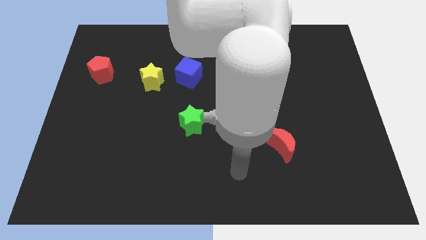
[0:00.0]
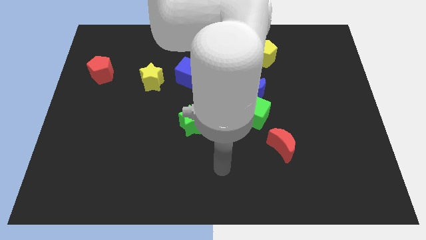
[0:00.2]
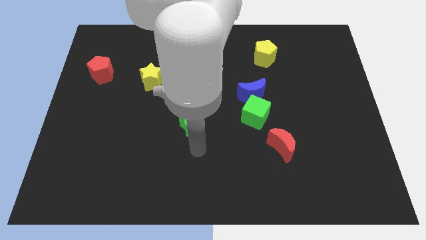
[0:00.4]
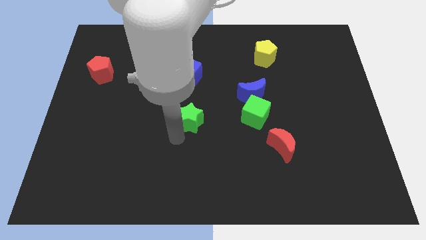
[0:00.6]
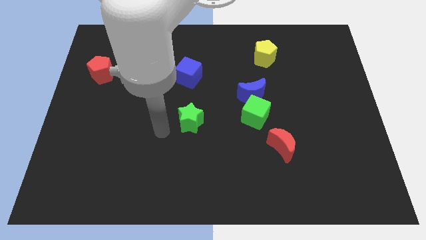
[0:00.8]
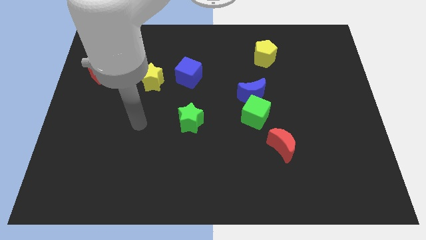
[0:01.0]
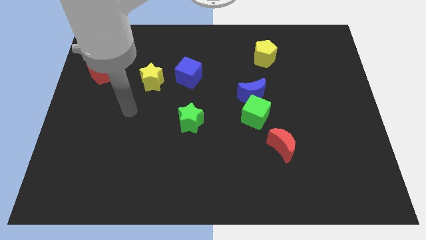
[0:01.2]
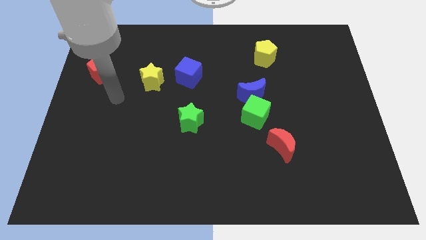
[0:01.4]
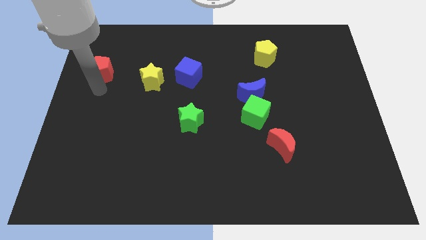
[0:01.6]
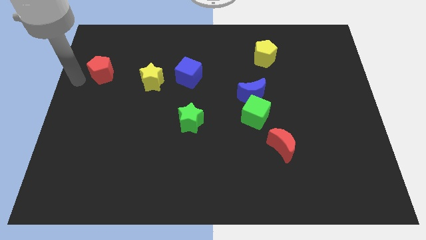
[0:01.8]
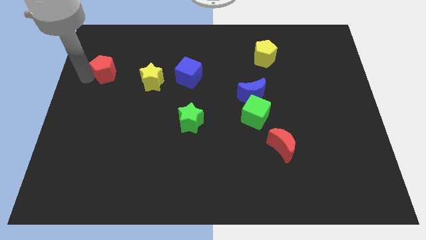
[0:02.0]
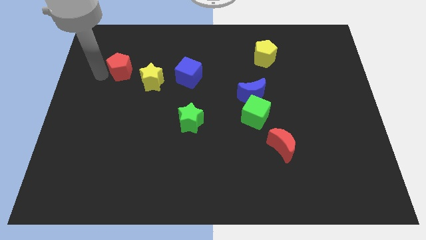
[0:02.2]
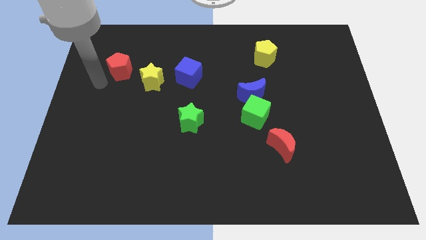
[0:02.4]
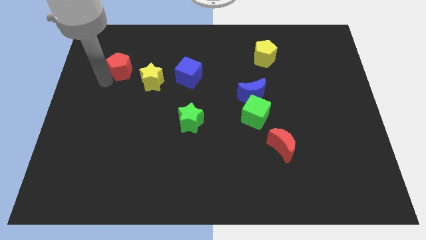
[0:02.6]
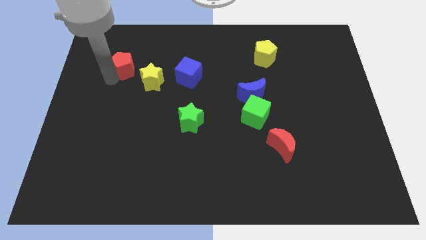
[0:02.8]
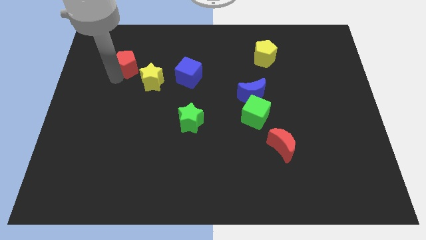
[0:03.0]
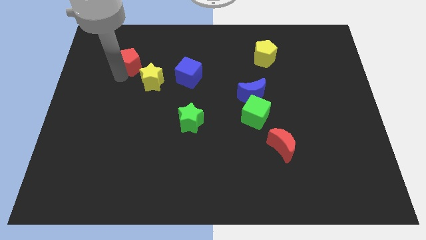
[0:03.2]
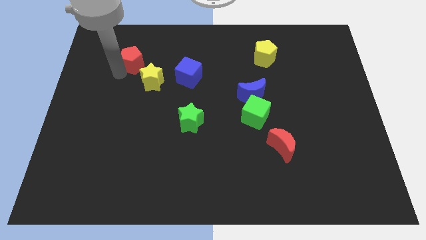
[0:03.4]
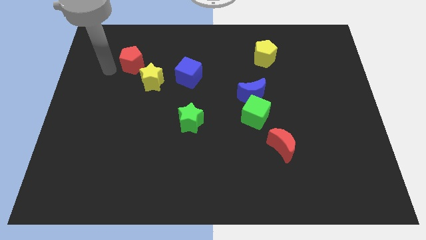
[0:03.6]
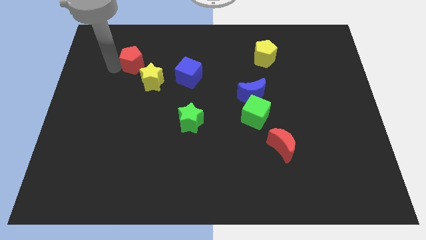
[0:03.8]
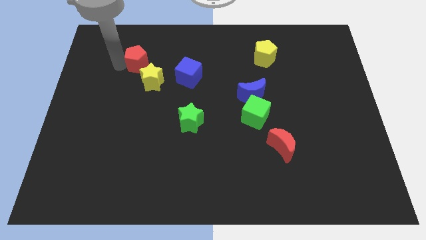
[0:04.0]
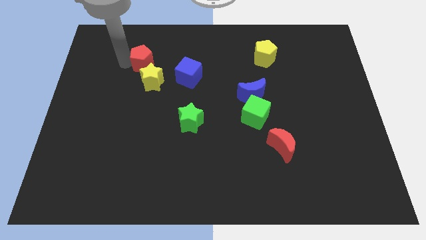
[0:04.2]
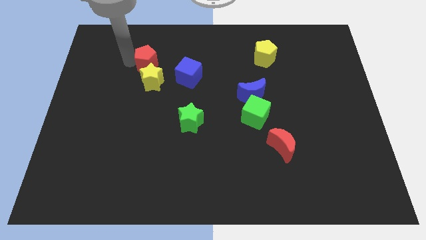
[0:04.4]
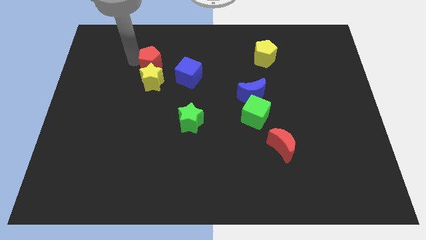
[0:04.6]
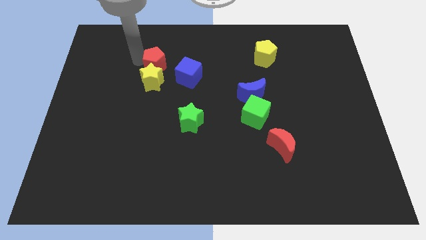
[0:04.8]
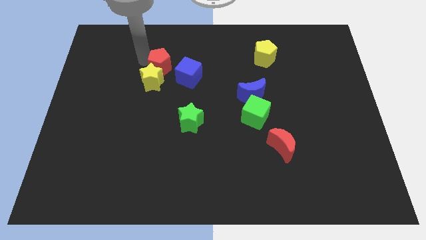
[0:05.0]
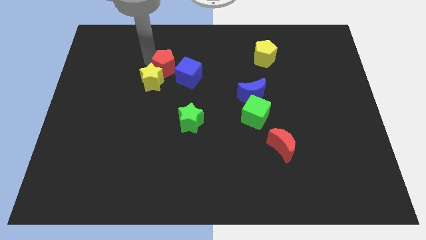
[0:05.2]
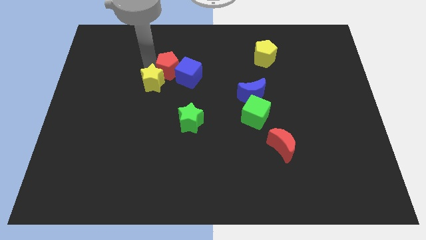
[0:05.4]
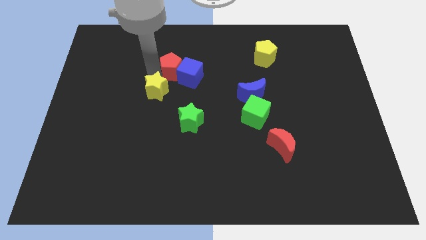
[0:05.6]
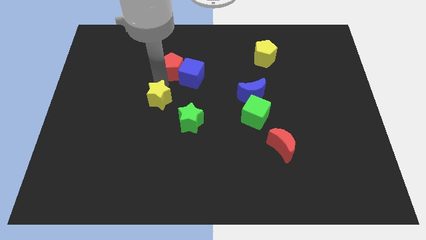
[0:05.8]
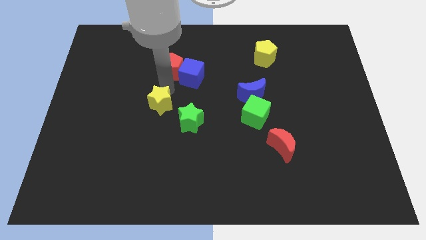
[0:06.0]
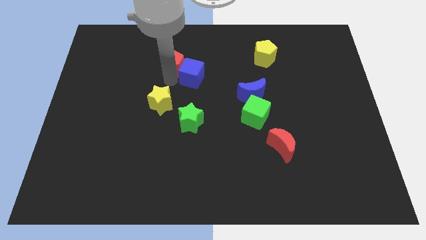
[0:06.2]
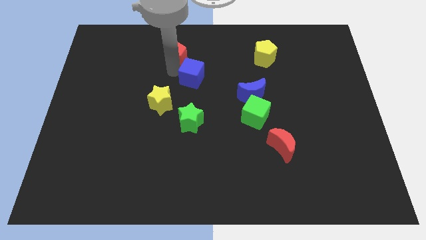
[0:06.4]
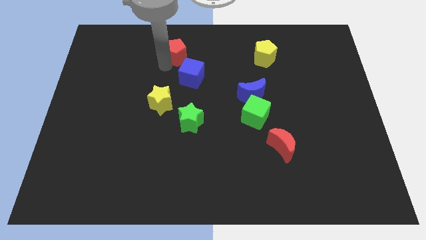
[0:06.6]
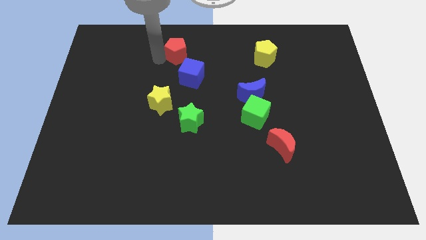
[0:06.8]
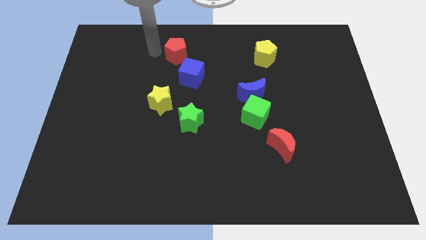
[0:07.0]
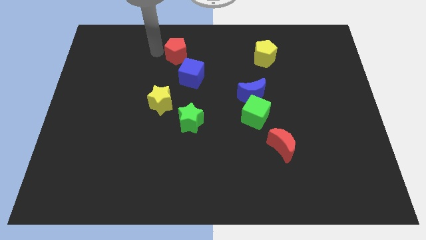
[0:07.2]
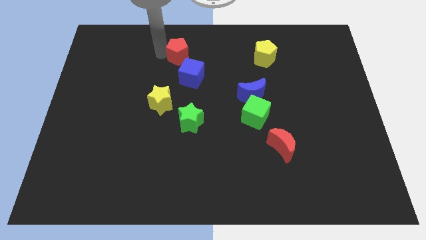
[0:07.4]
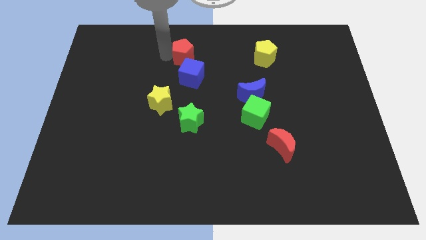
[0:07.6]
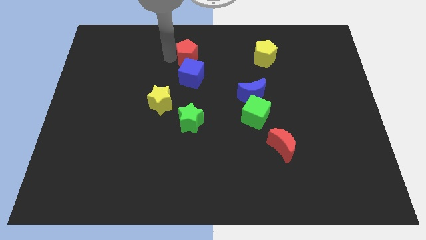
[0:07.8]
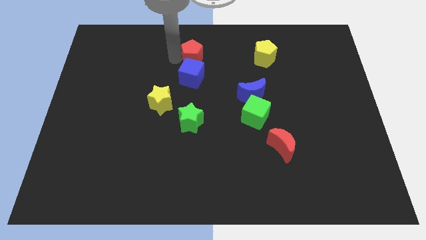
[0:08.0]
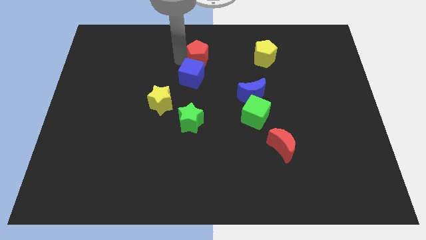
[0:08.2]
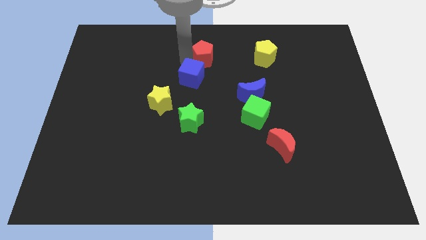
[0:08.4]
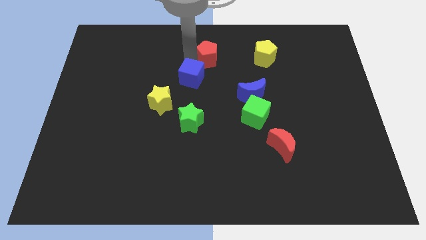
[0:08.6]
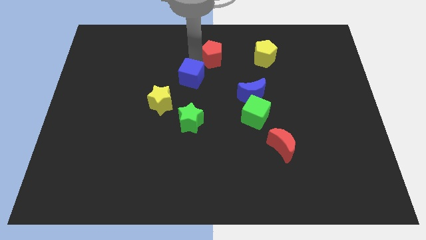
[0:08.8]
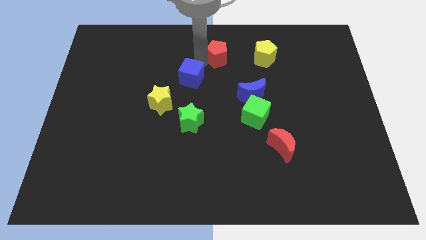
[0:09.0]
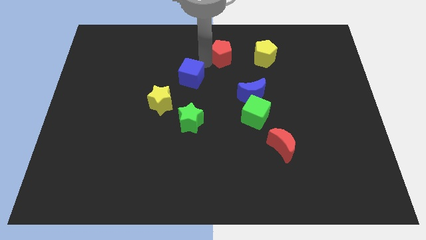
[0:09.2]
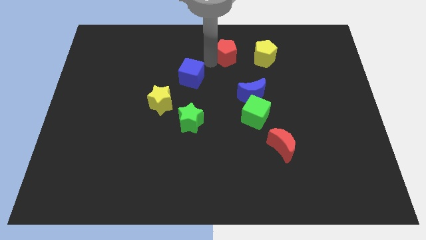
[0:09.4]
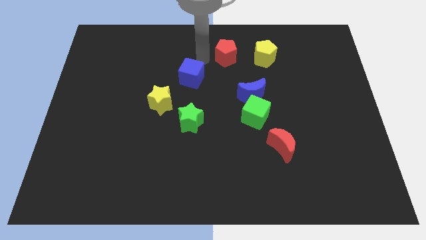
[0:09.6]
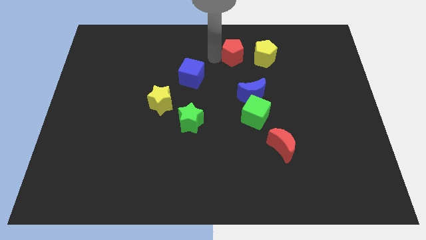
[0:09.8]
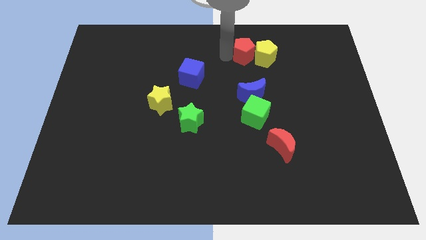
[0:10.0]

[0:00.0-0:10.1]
slide the red pentagon close to the yellow pentagon
